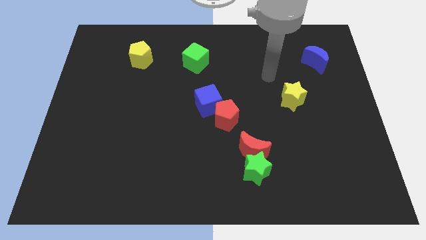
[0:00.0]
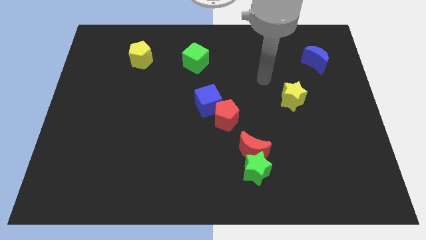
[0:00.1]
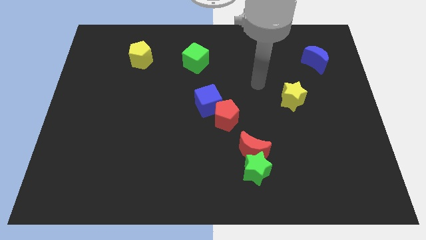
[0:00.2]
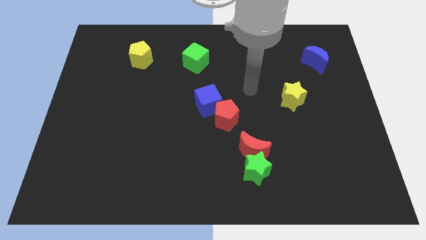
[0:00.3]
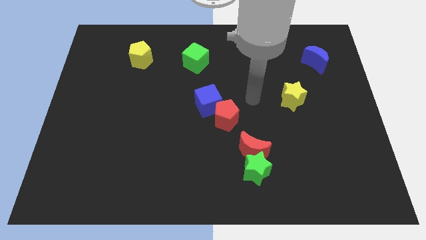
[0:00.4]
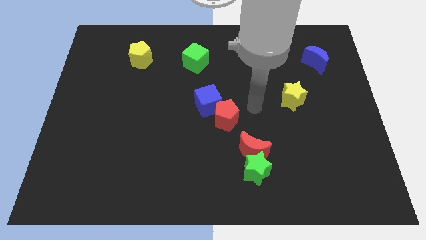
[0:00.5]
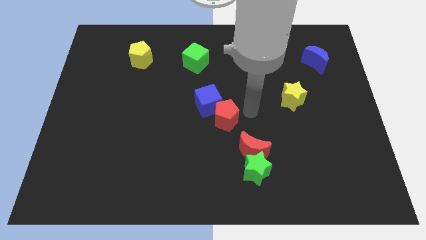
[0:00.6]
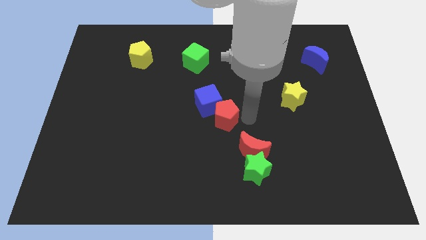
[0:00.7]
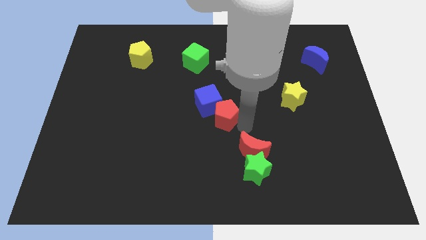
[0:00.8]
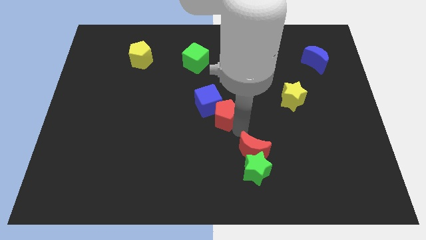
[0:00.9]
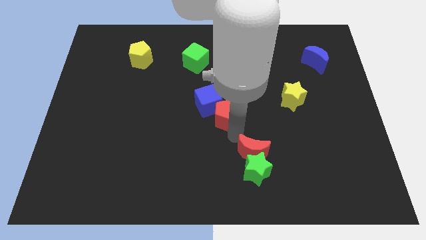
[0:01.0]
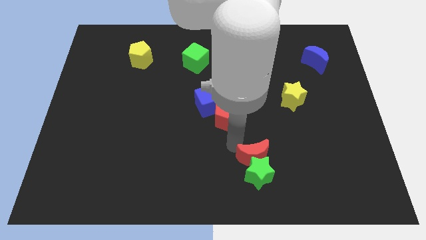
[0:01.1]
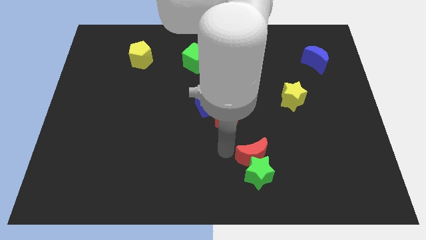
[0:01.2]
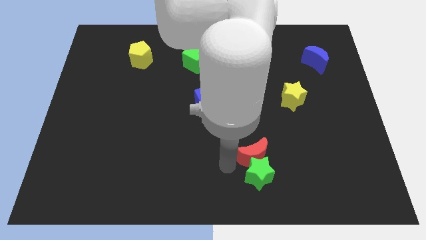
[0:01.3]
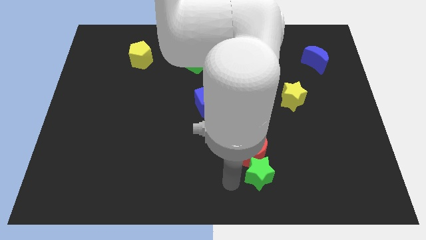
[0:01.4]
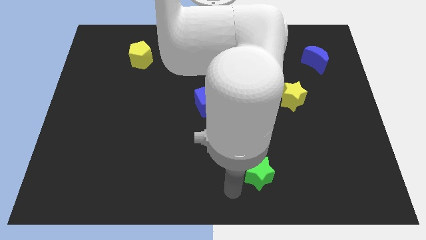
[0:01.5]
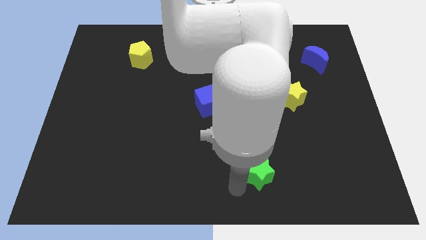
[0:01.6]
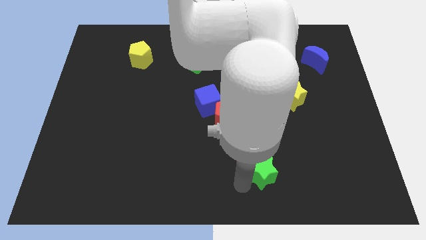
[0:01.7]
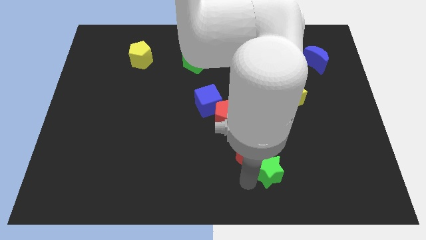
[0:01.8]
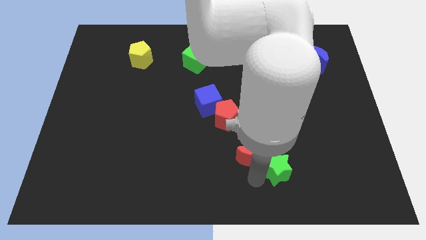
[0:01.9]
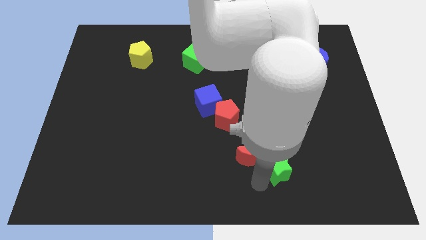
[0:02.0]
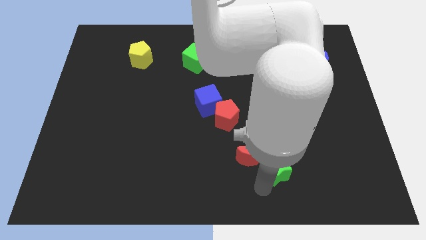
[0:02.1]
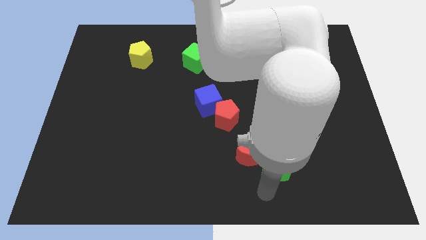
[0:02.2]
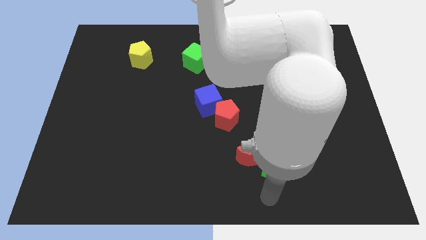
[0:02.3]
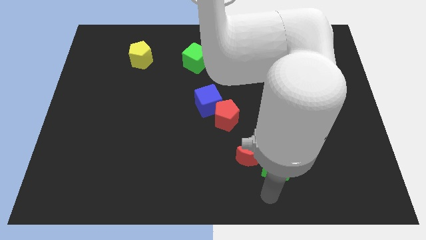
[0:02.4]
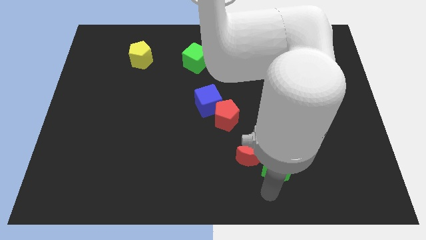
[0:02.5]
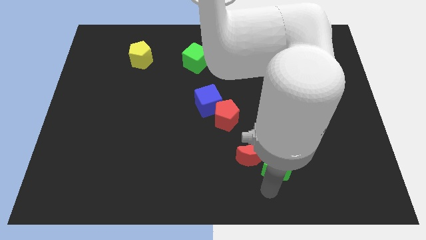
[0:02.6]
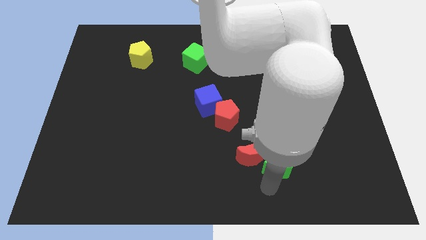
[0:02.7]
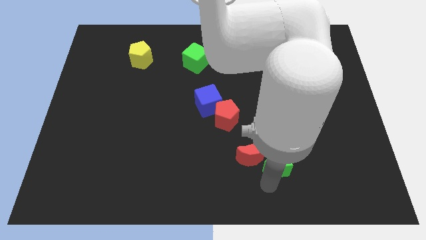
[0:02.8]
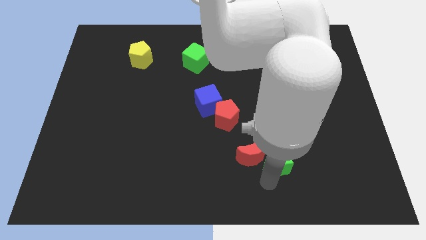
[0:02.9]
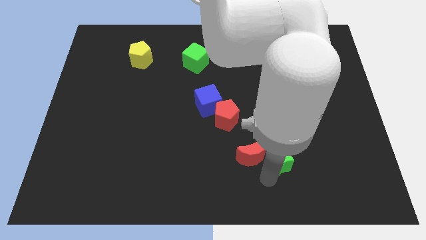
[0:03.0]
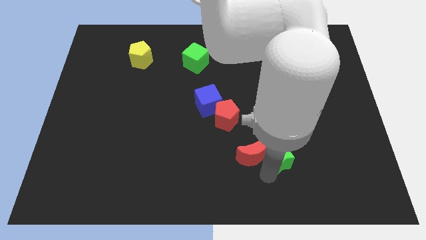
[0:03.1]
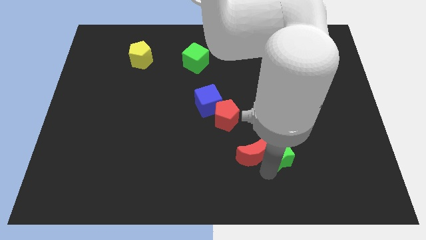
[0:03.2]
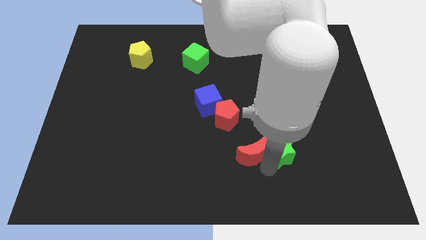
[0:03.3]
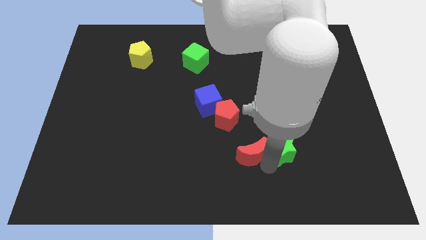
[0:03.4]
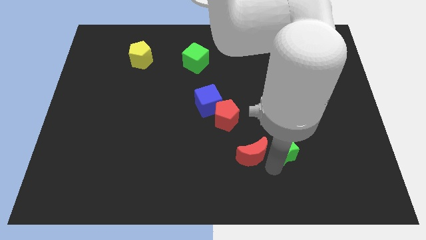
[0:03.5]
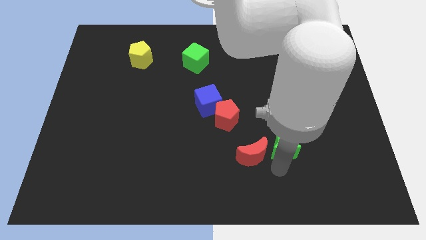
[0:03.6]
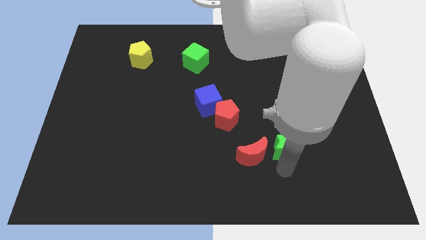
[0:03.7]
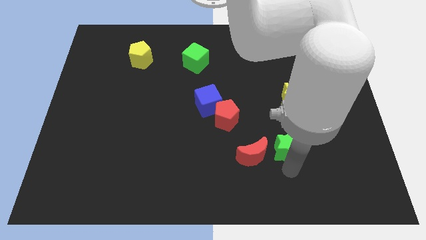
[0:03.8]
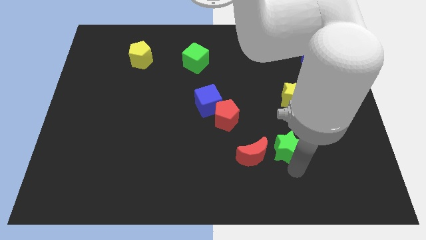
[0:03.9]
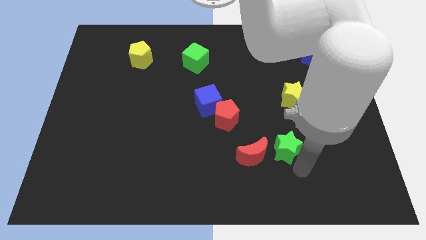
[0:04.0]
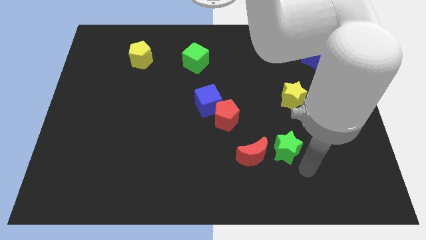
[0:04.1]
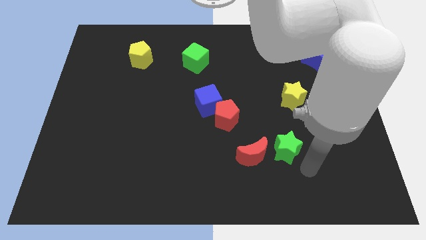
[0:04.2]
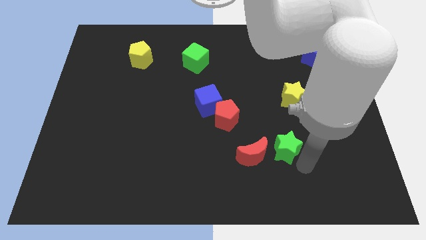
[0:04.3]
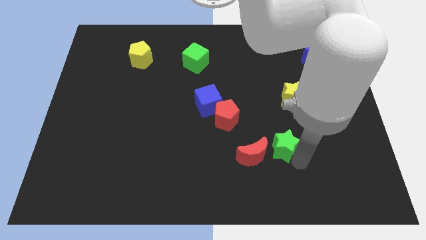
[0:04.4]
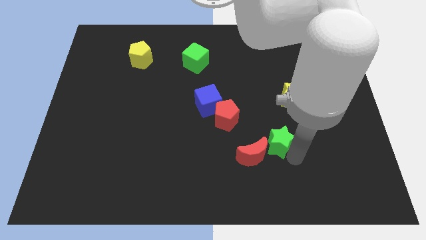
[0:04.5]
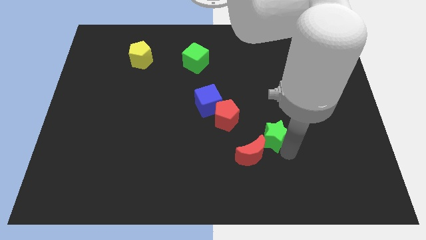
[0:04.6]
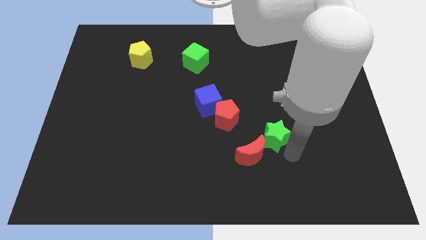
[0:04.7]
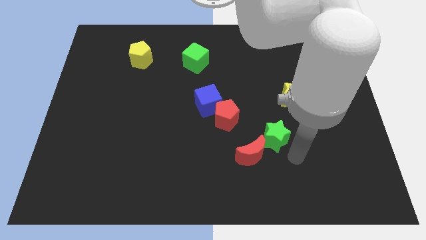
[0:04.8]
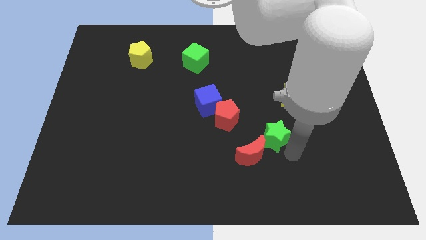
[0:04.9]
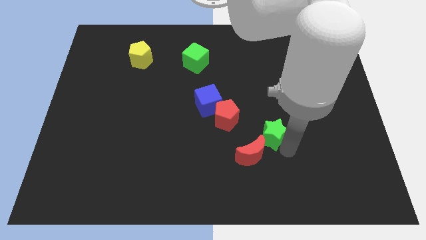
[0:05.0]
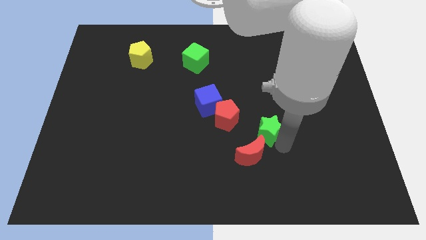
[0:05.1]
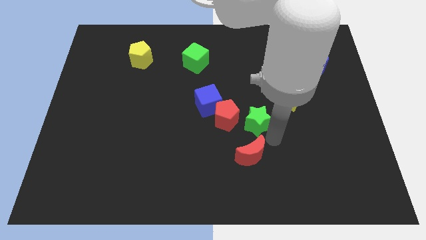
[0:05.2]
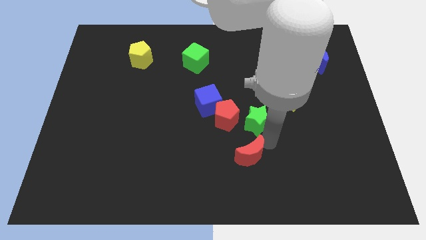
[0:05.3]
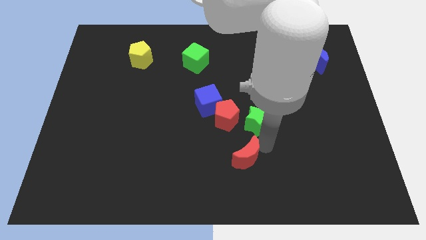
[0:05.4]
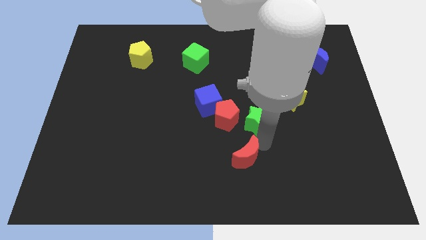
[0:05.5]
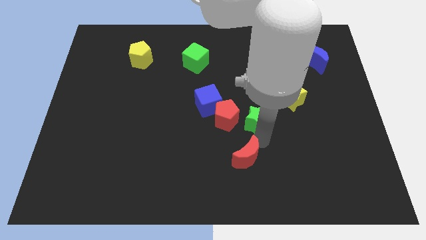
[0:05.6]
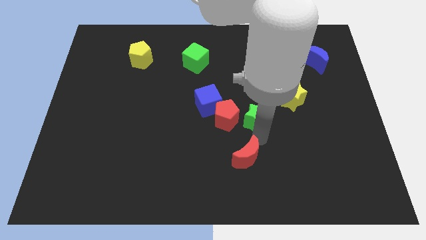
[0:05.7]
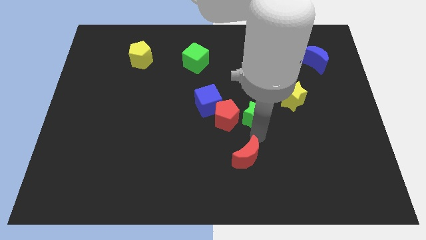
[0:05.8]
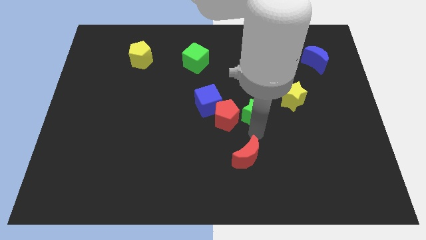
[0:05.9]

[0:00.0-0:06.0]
move the green star to the left side of the yellow star
